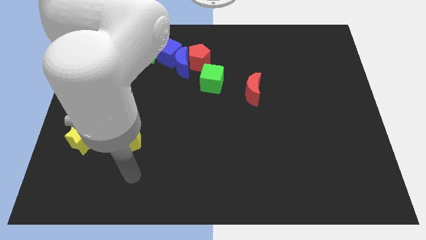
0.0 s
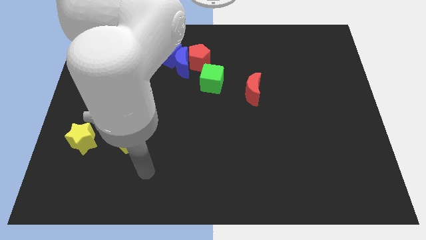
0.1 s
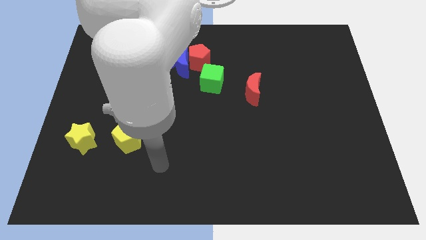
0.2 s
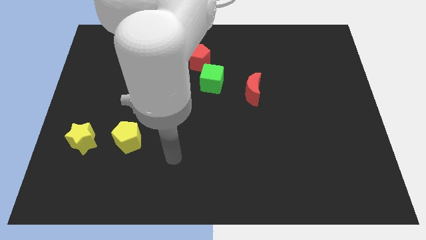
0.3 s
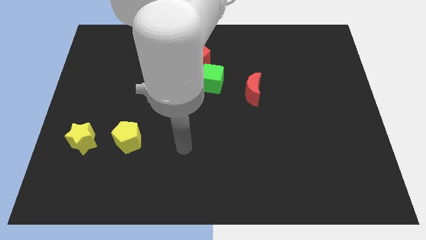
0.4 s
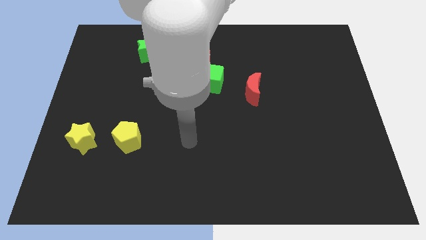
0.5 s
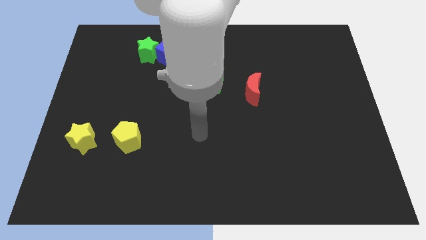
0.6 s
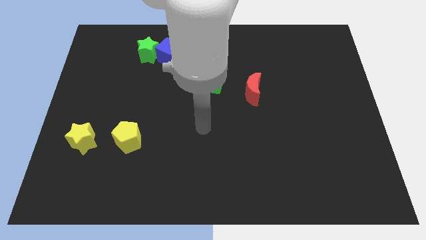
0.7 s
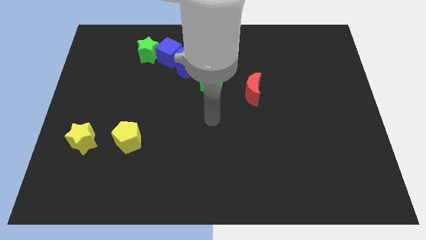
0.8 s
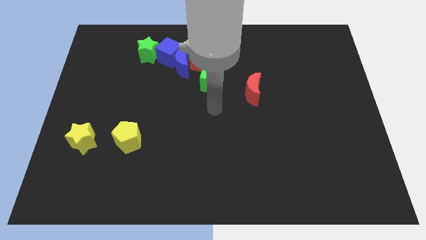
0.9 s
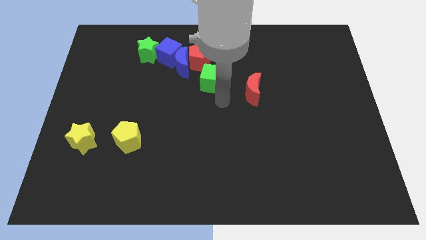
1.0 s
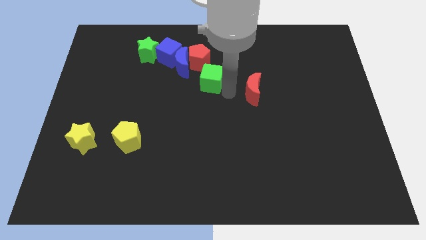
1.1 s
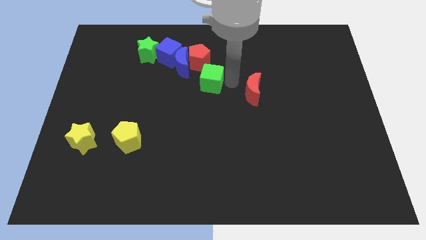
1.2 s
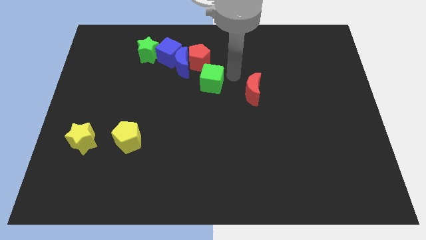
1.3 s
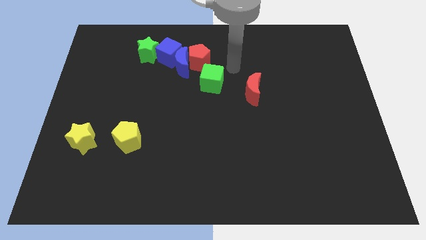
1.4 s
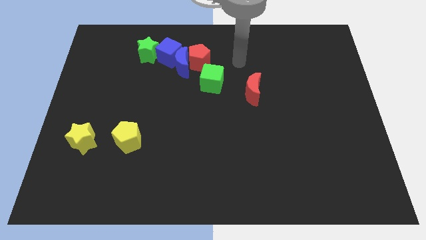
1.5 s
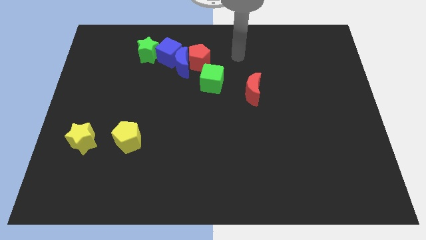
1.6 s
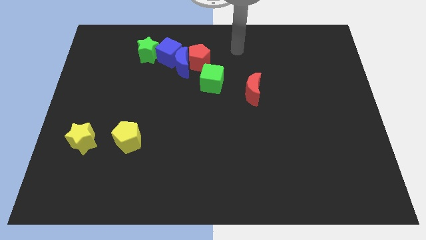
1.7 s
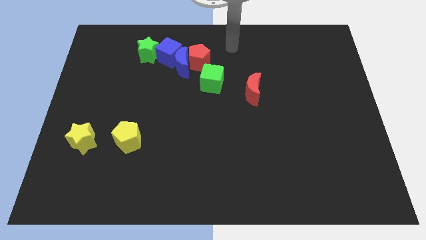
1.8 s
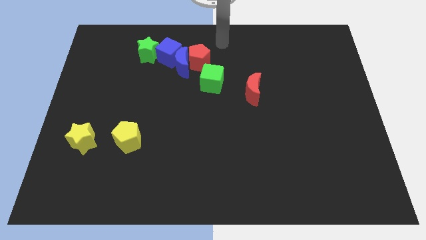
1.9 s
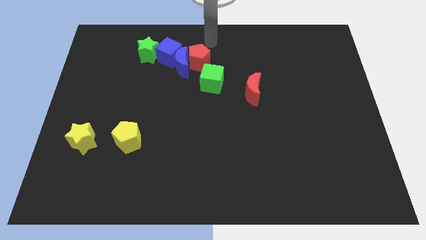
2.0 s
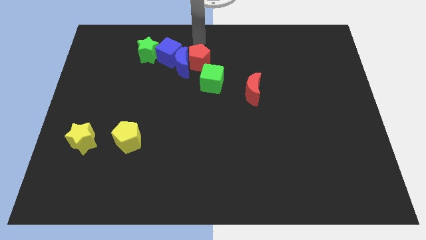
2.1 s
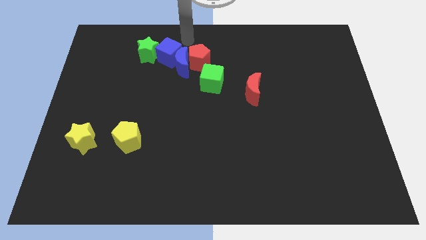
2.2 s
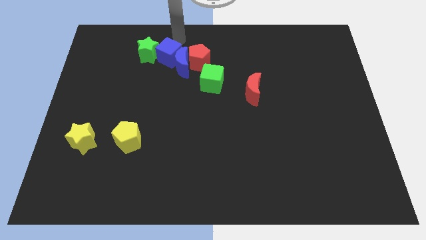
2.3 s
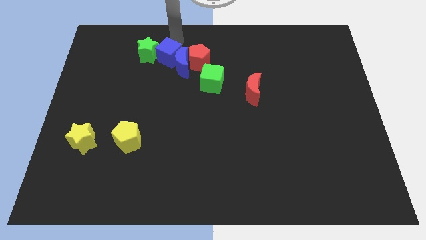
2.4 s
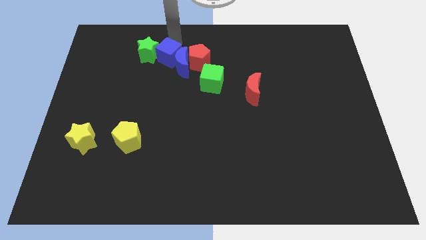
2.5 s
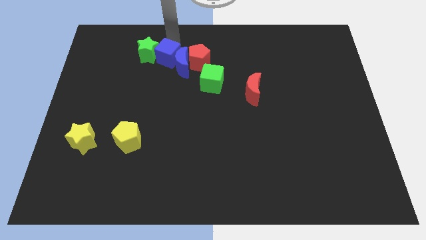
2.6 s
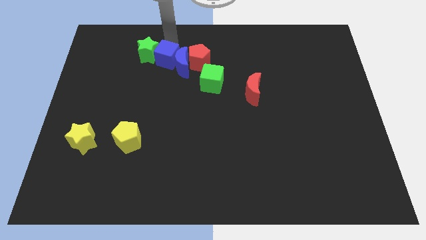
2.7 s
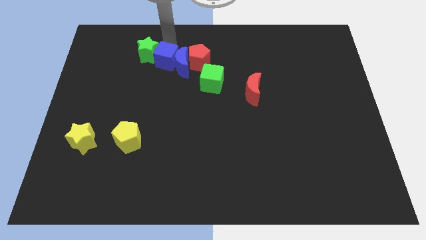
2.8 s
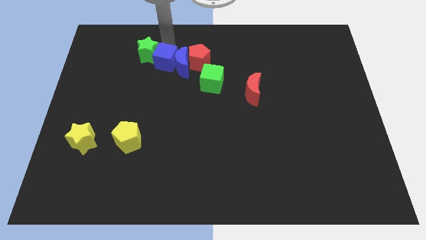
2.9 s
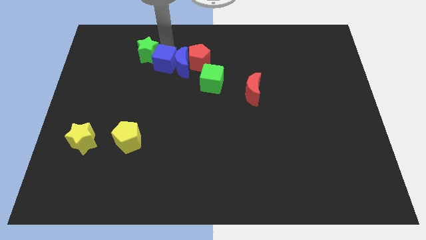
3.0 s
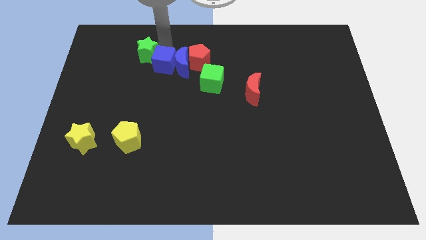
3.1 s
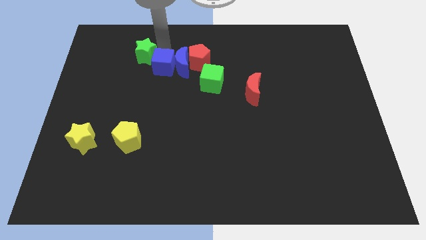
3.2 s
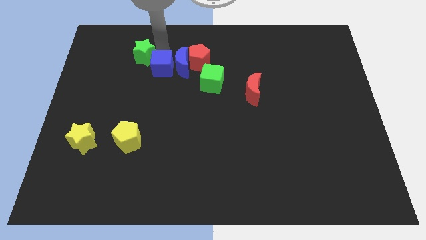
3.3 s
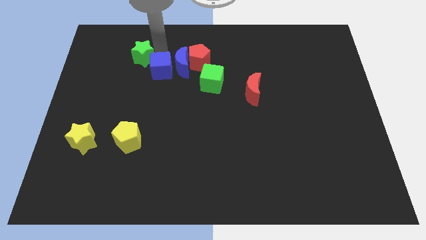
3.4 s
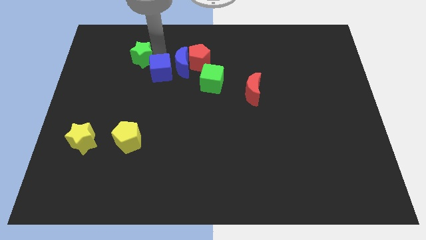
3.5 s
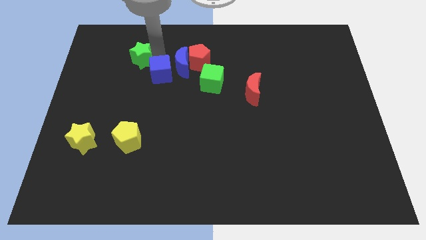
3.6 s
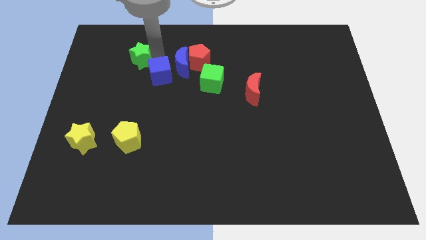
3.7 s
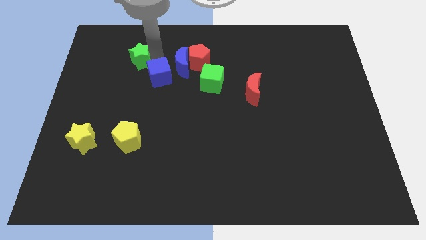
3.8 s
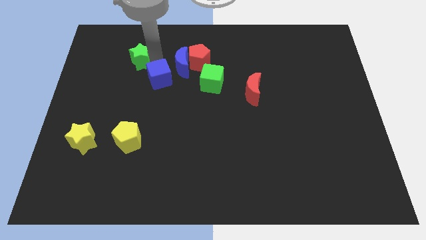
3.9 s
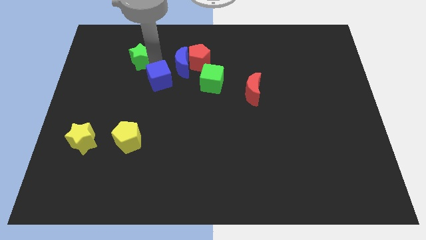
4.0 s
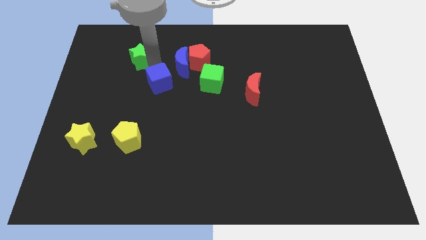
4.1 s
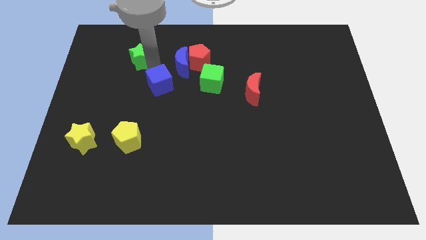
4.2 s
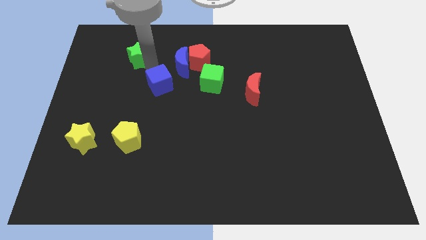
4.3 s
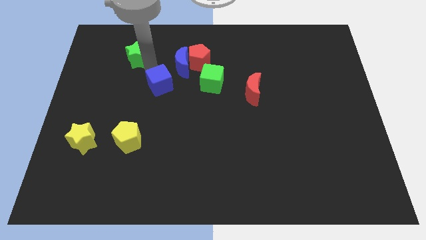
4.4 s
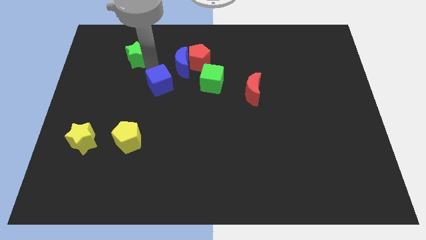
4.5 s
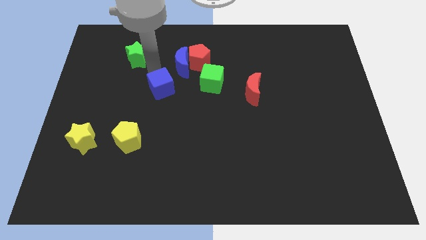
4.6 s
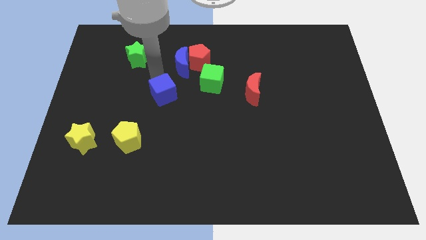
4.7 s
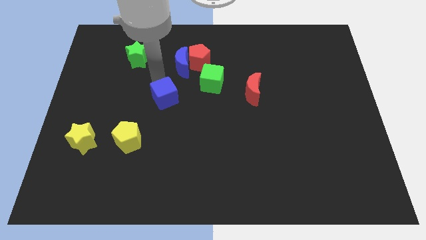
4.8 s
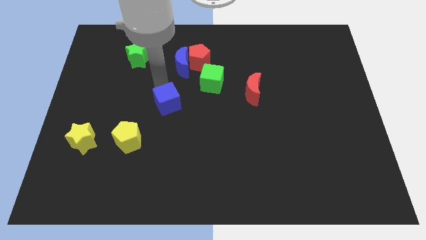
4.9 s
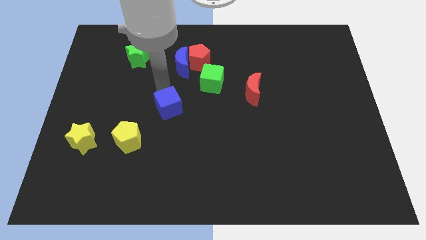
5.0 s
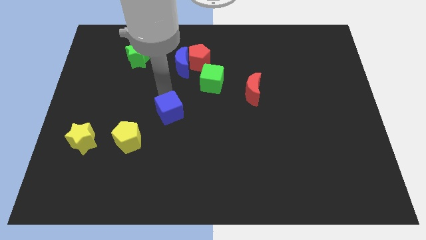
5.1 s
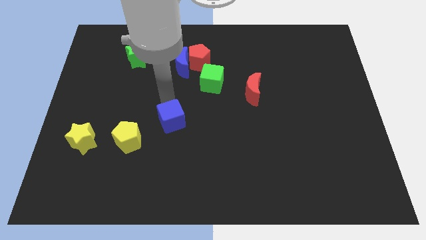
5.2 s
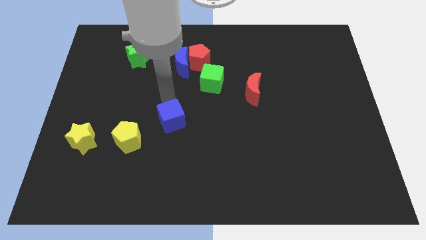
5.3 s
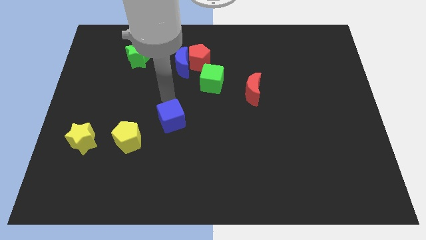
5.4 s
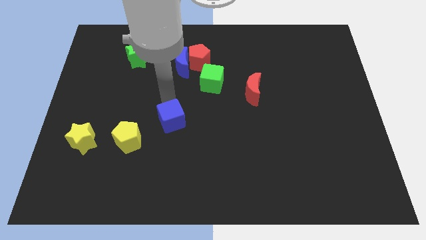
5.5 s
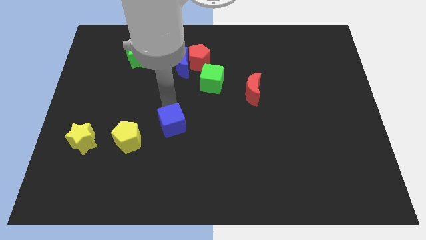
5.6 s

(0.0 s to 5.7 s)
put the blue cube to the right of the yellow pentagon

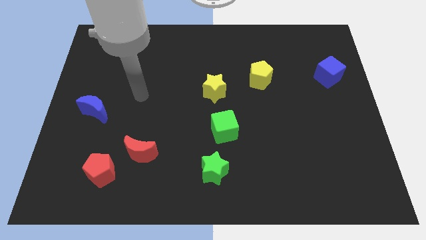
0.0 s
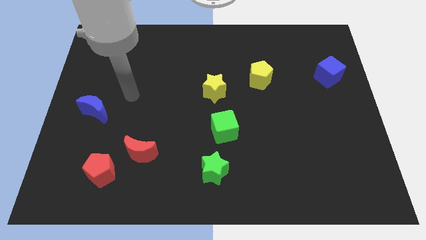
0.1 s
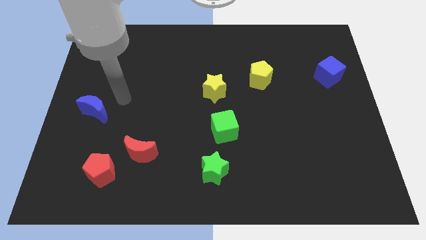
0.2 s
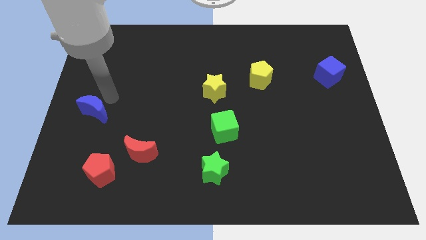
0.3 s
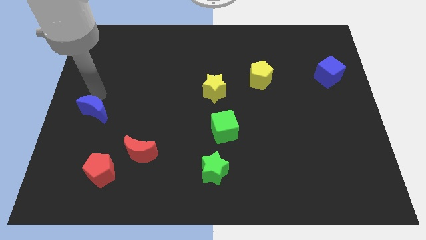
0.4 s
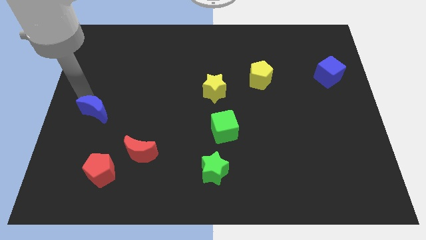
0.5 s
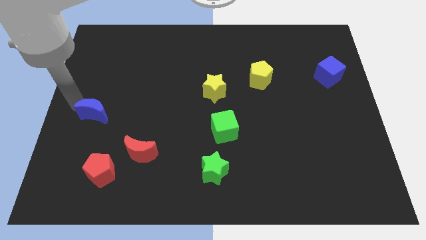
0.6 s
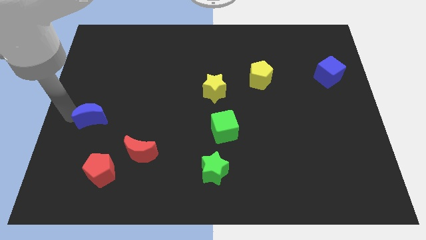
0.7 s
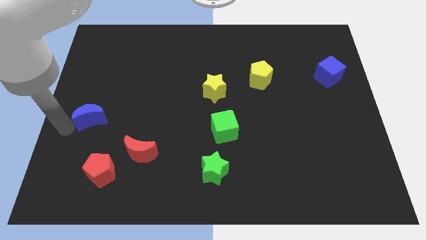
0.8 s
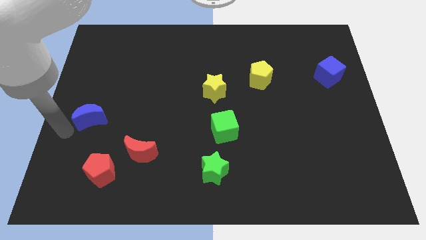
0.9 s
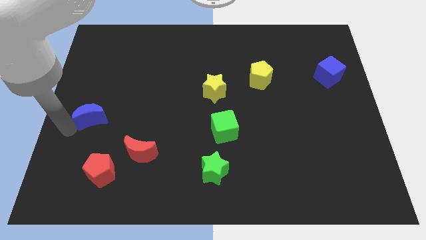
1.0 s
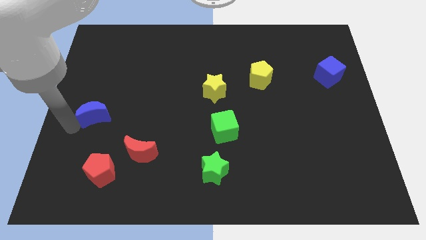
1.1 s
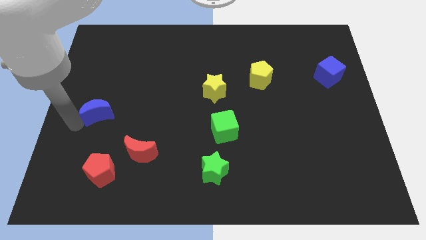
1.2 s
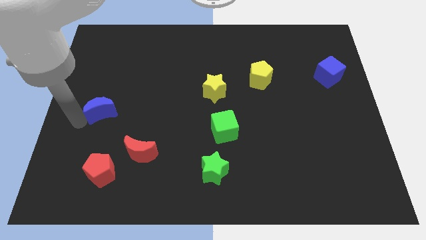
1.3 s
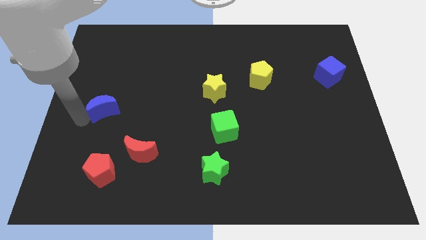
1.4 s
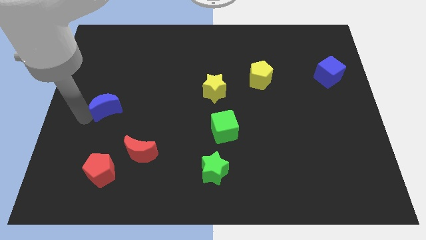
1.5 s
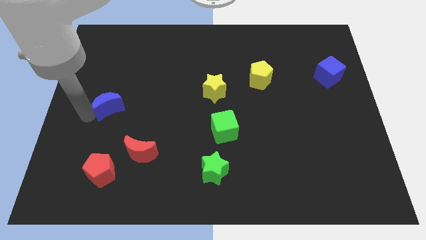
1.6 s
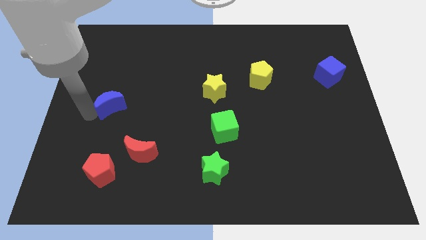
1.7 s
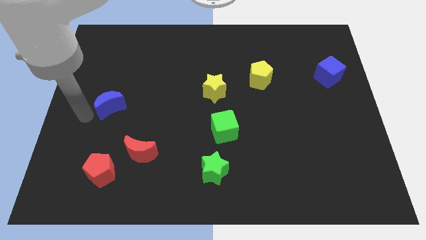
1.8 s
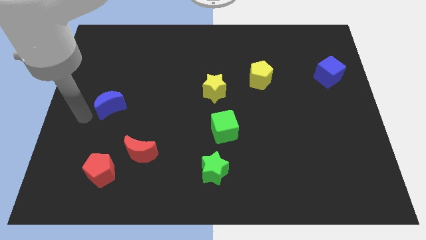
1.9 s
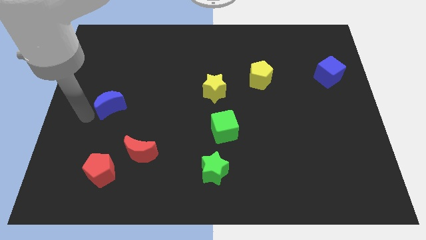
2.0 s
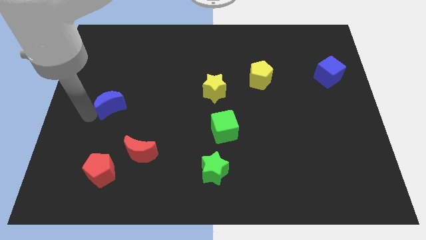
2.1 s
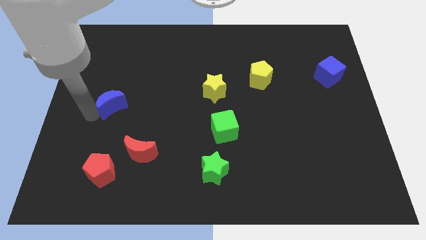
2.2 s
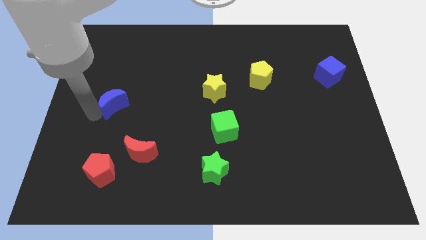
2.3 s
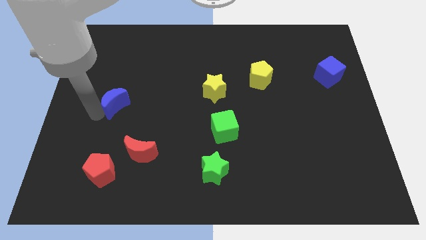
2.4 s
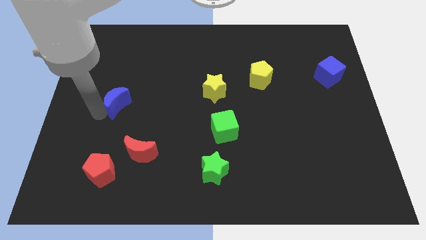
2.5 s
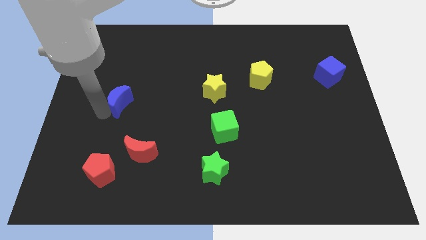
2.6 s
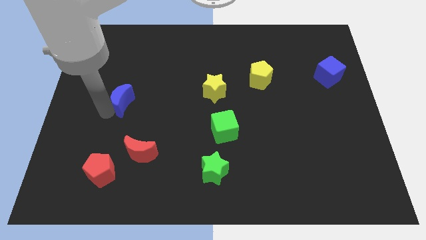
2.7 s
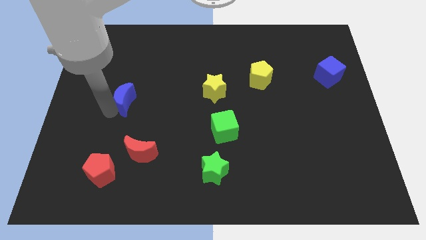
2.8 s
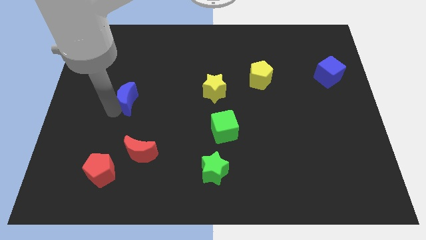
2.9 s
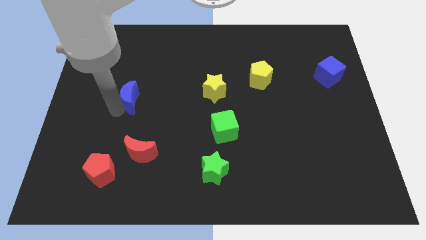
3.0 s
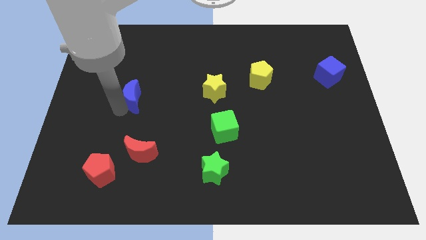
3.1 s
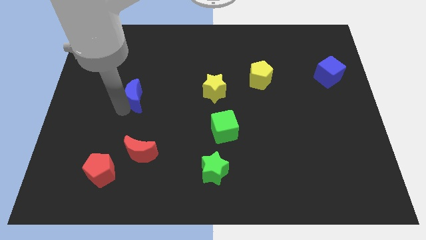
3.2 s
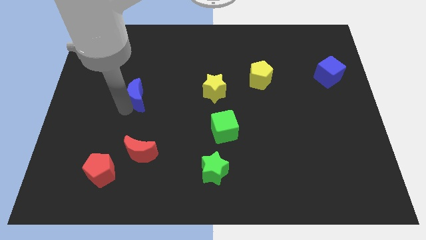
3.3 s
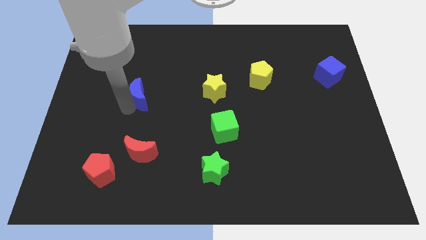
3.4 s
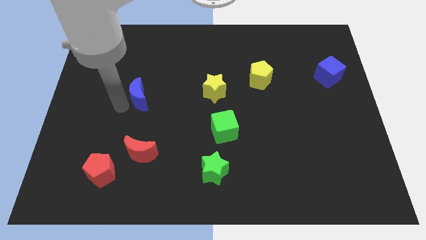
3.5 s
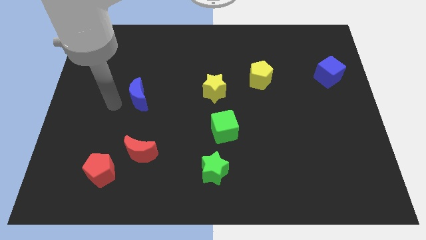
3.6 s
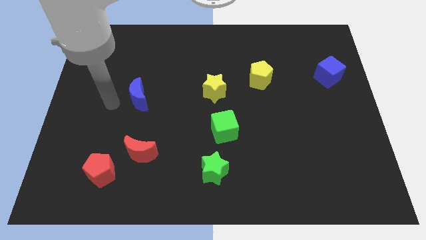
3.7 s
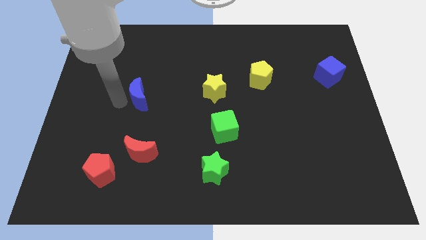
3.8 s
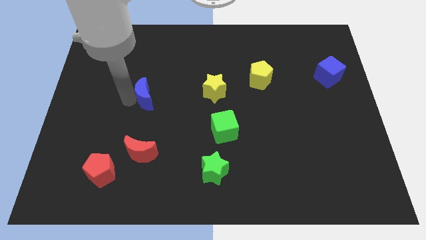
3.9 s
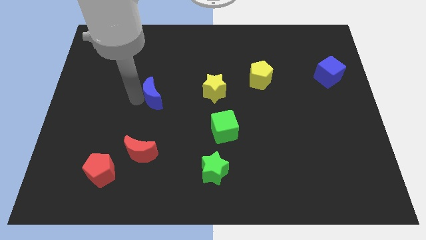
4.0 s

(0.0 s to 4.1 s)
slide the blue moon to the left side of the yellow star
